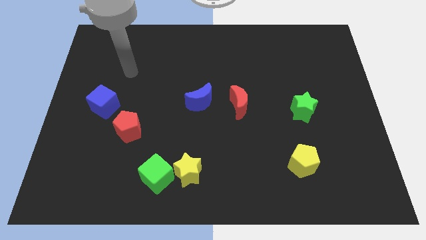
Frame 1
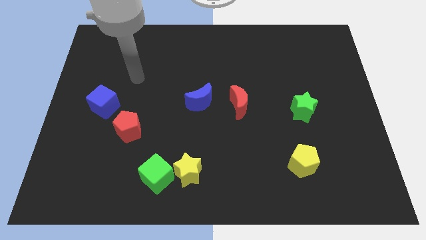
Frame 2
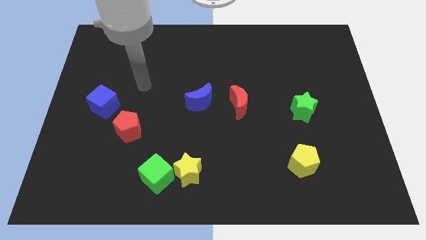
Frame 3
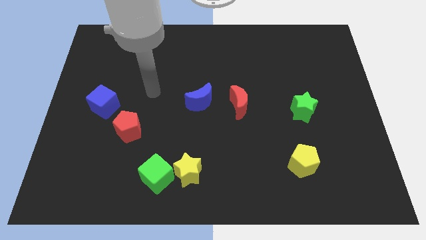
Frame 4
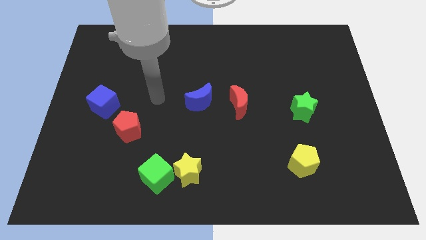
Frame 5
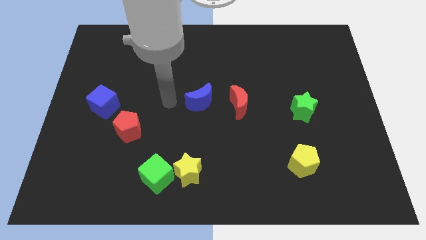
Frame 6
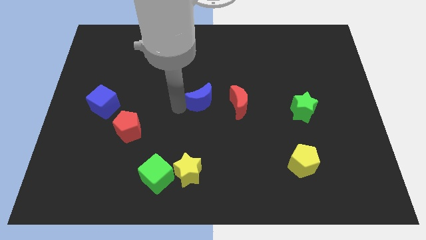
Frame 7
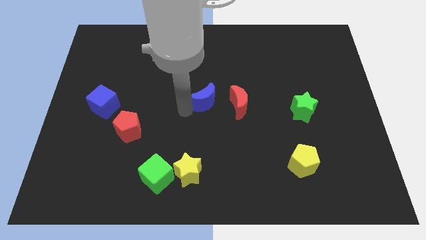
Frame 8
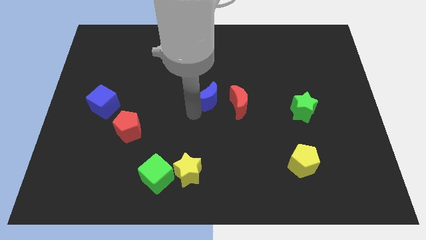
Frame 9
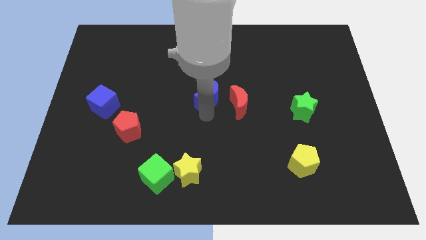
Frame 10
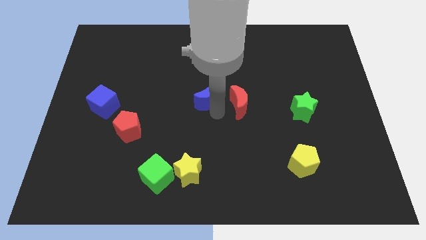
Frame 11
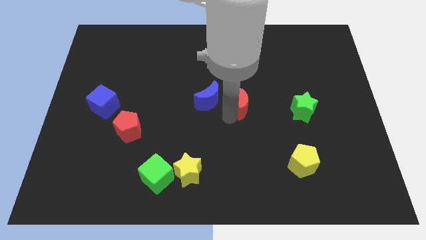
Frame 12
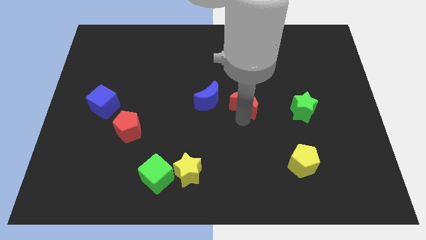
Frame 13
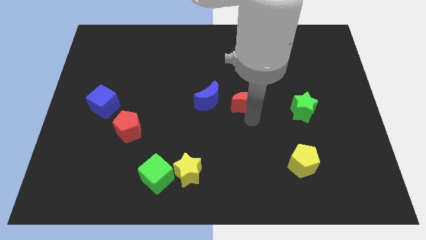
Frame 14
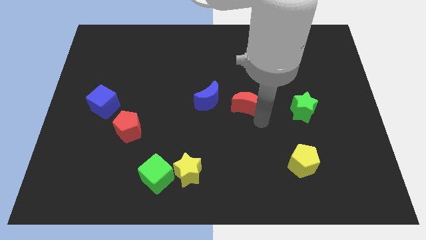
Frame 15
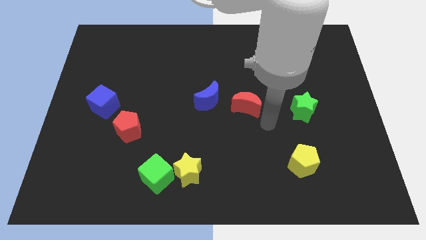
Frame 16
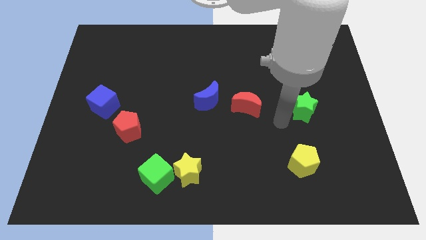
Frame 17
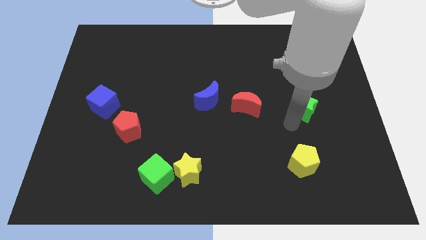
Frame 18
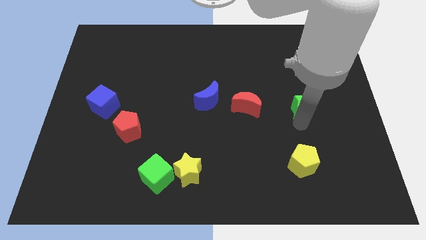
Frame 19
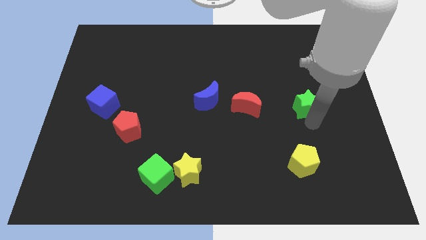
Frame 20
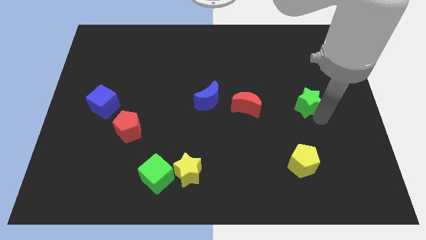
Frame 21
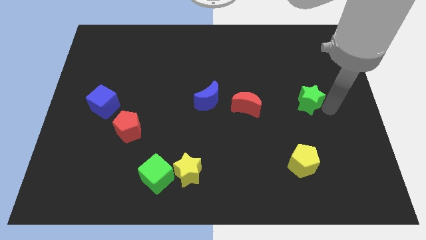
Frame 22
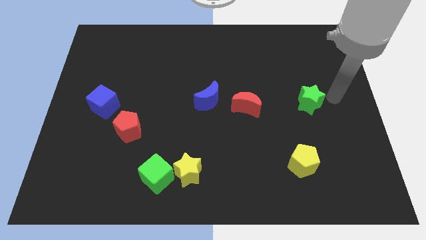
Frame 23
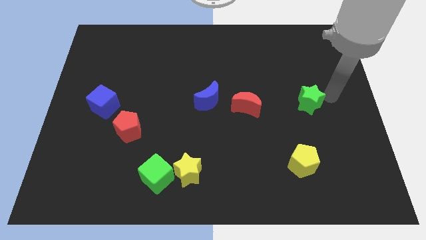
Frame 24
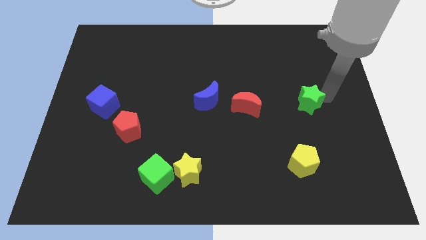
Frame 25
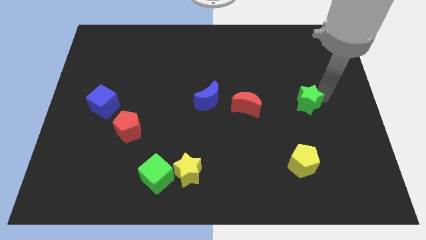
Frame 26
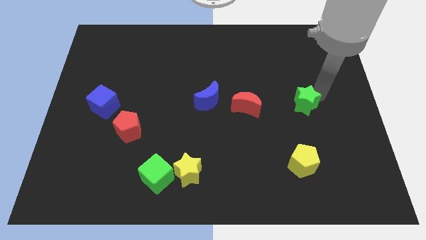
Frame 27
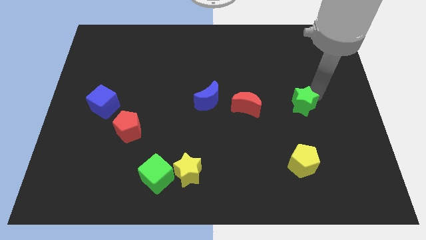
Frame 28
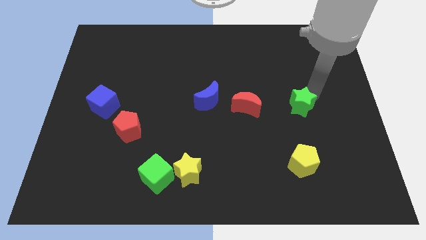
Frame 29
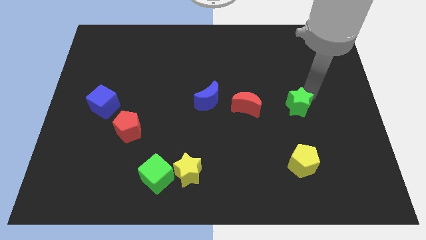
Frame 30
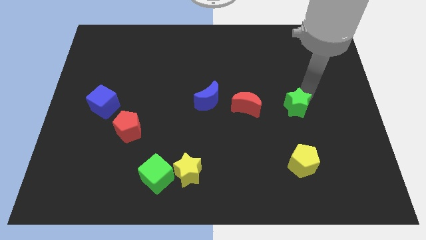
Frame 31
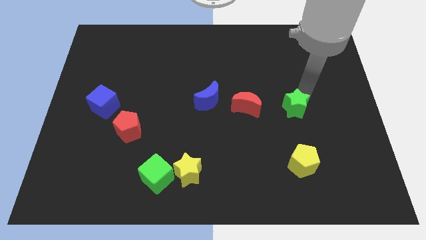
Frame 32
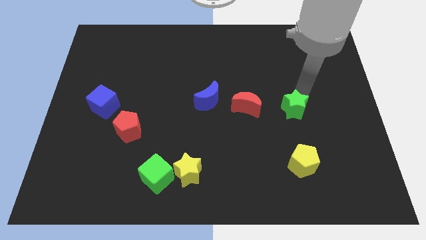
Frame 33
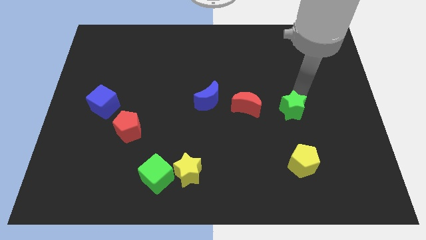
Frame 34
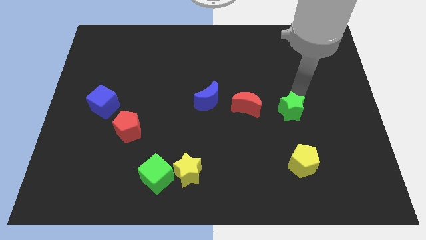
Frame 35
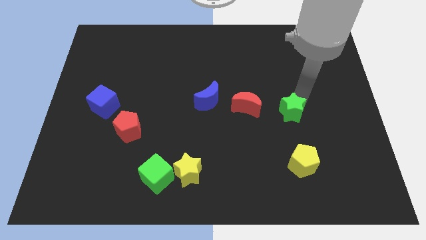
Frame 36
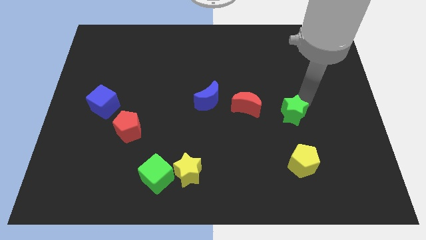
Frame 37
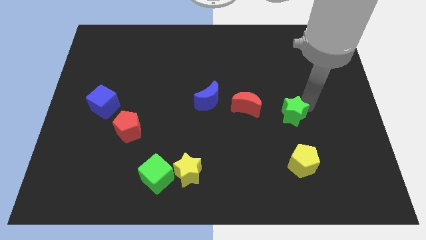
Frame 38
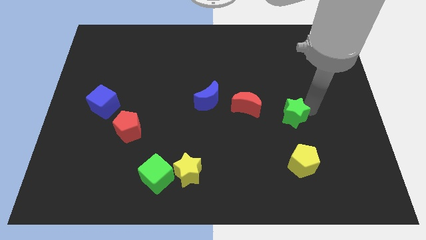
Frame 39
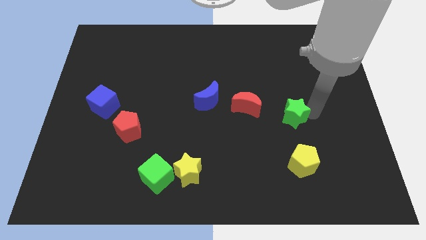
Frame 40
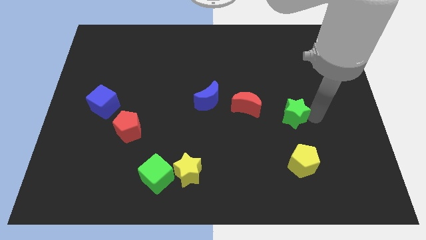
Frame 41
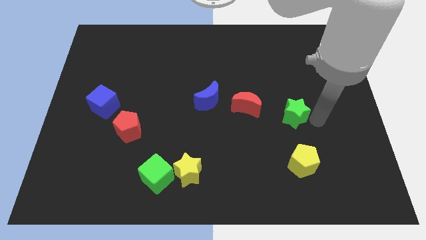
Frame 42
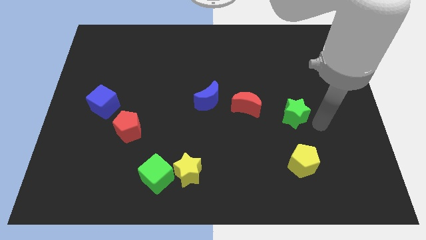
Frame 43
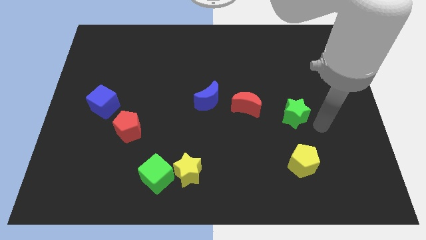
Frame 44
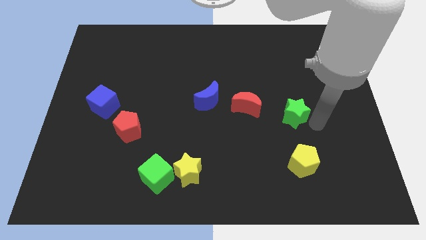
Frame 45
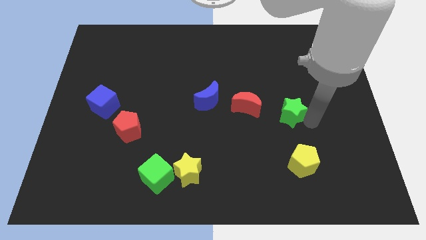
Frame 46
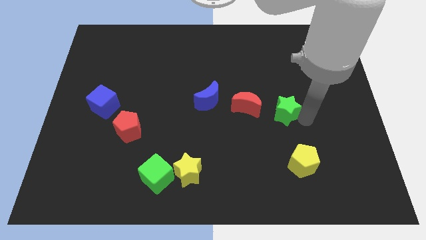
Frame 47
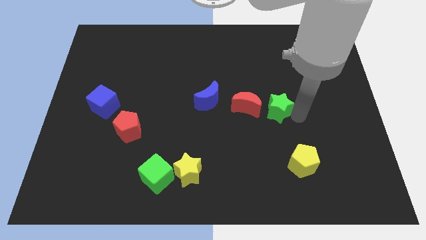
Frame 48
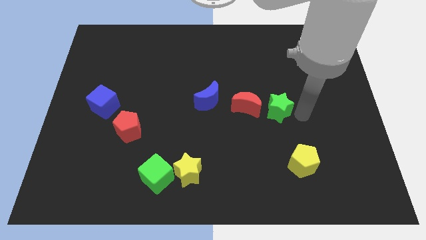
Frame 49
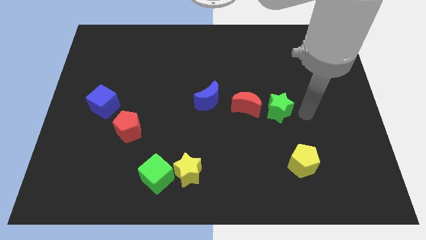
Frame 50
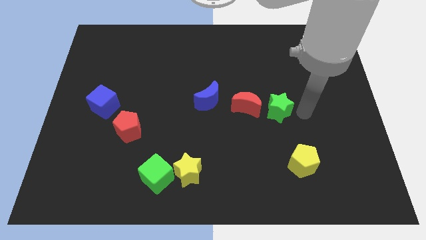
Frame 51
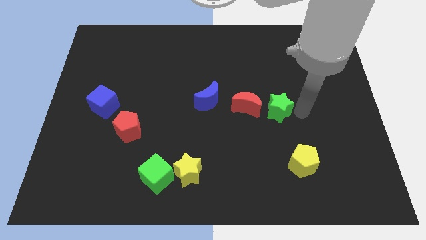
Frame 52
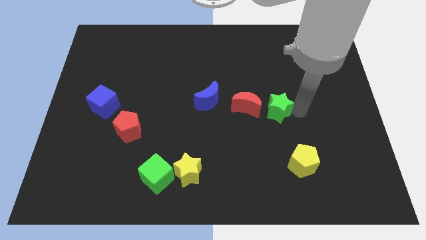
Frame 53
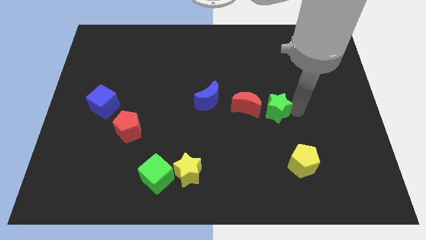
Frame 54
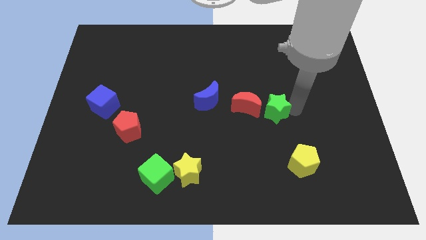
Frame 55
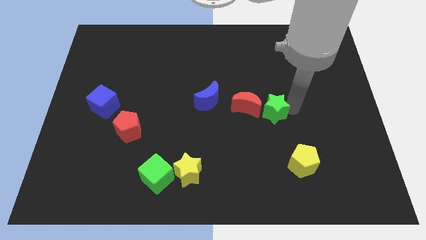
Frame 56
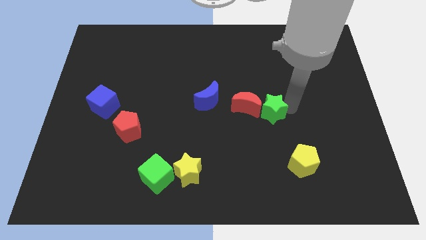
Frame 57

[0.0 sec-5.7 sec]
slide the green star to the red moon

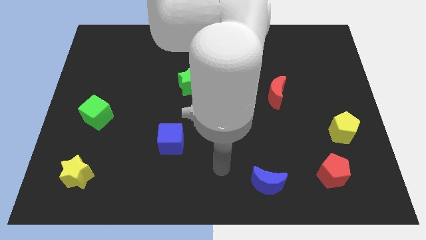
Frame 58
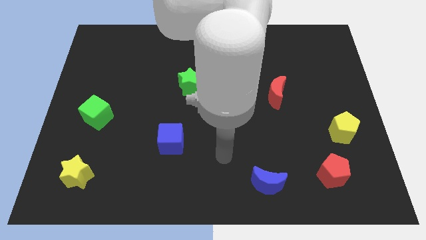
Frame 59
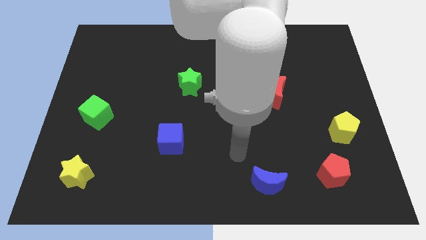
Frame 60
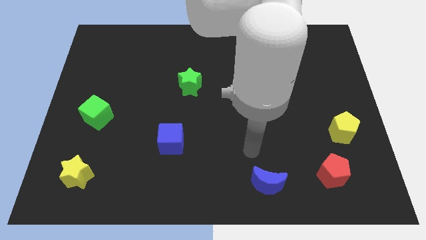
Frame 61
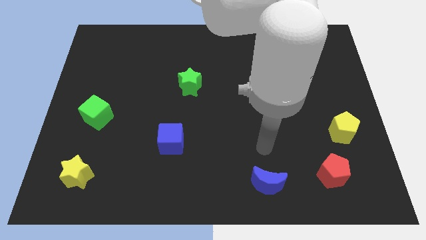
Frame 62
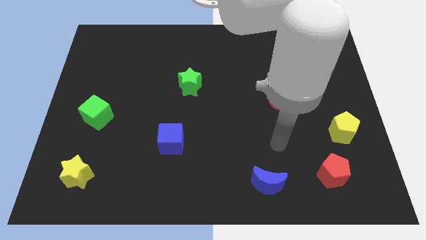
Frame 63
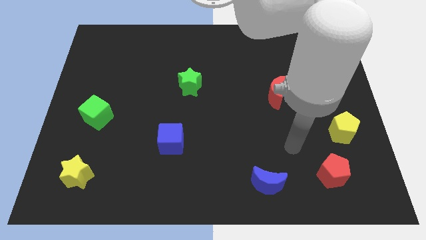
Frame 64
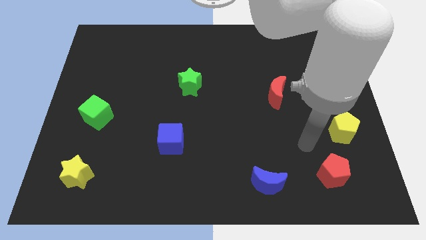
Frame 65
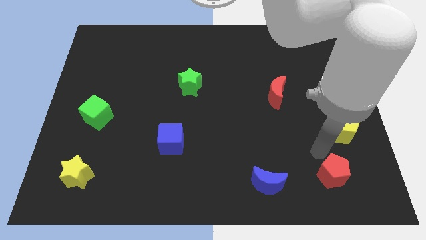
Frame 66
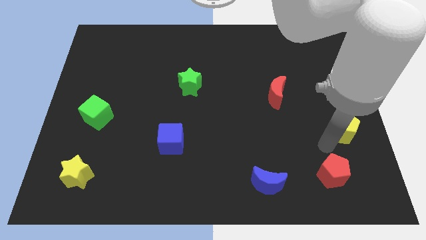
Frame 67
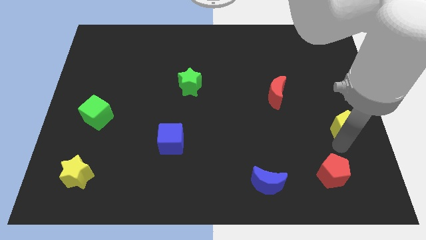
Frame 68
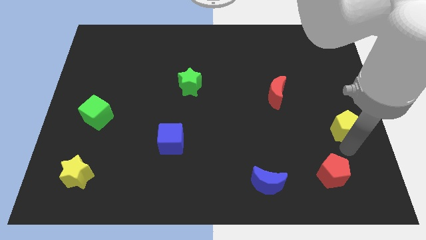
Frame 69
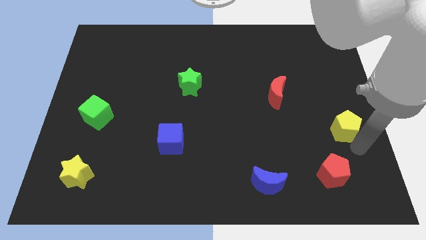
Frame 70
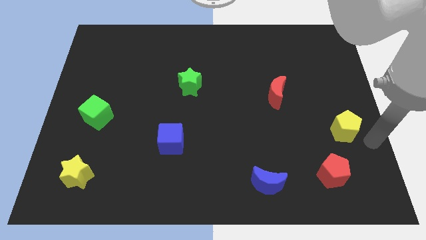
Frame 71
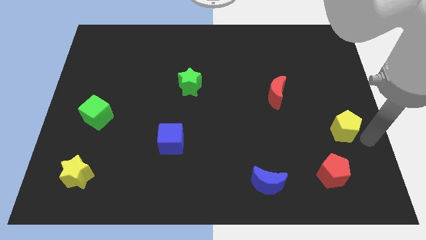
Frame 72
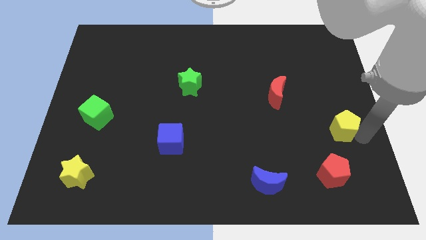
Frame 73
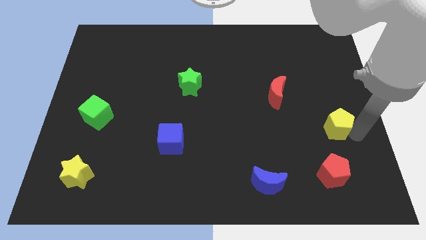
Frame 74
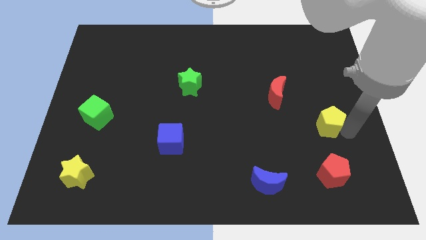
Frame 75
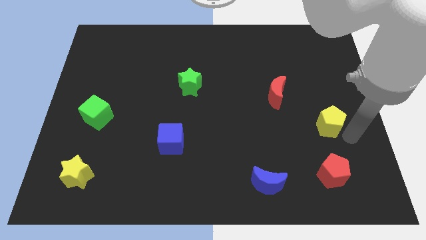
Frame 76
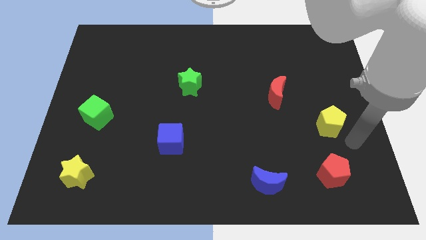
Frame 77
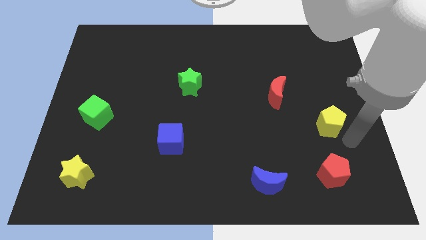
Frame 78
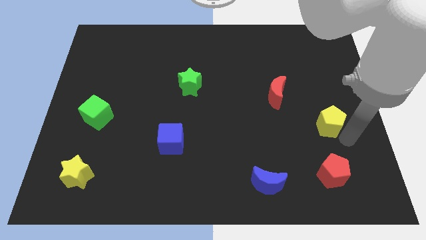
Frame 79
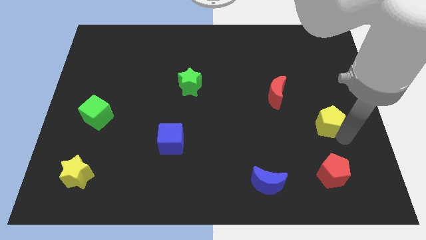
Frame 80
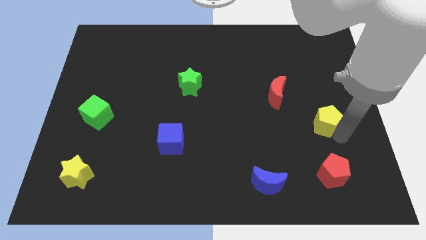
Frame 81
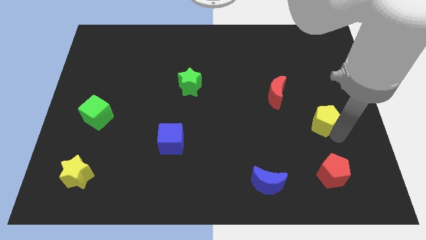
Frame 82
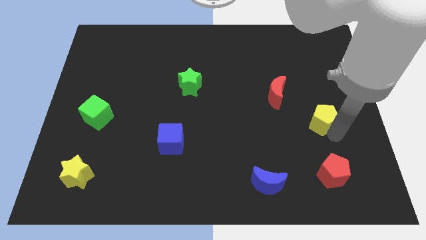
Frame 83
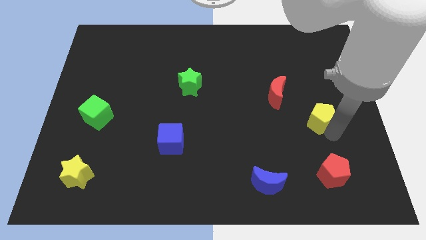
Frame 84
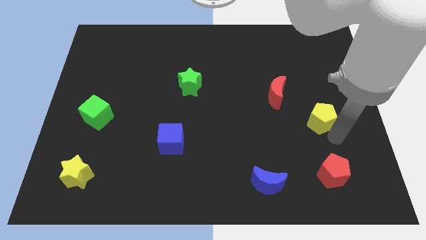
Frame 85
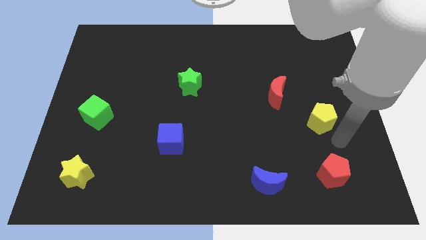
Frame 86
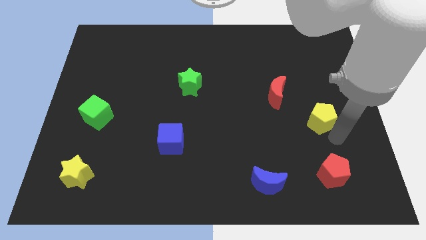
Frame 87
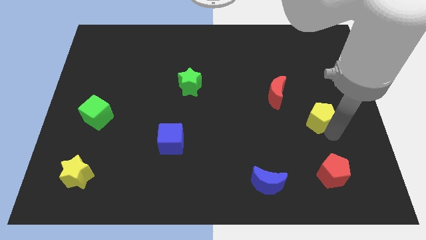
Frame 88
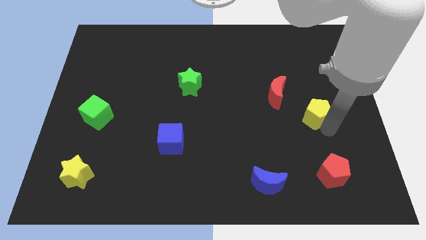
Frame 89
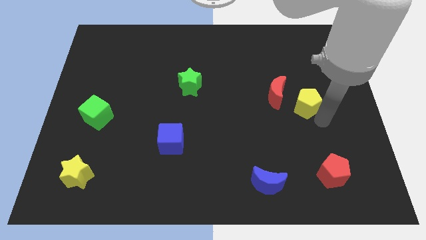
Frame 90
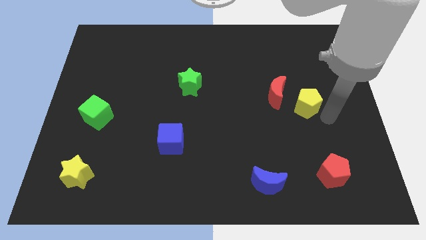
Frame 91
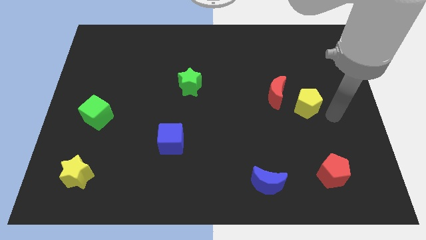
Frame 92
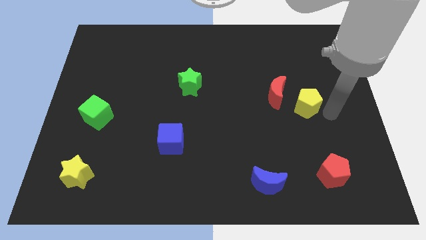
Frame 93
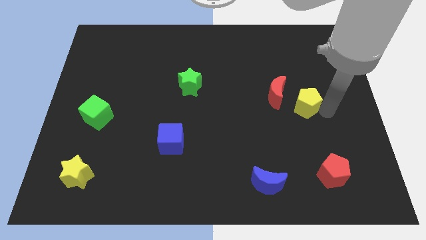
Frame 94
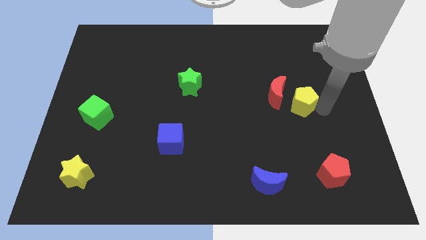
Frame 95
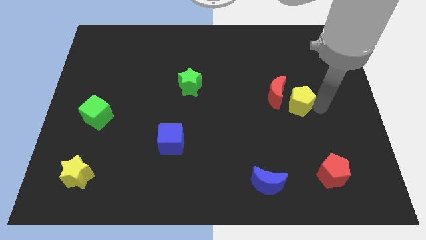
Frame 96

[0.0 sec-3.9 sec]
put the yellow pentagon towards the red moon
